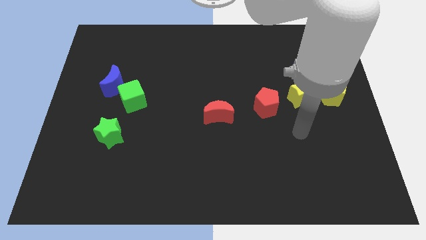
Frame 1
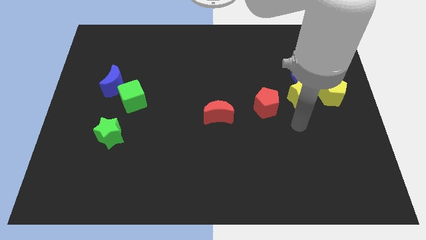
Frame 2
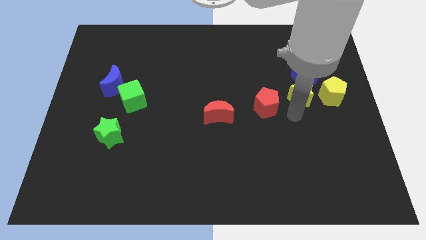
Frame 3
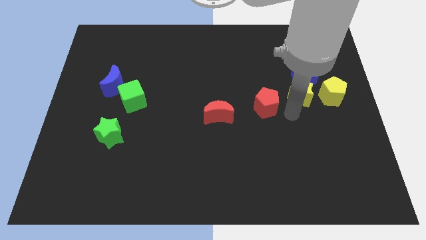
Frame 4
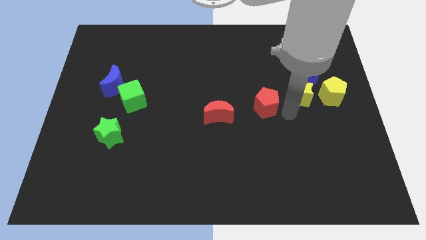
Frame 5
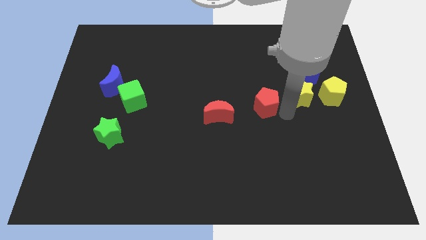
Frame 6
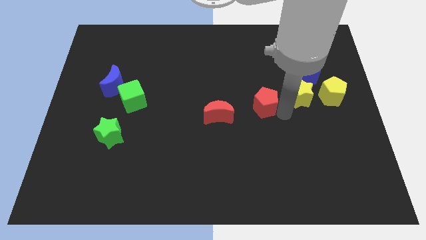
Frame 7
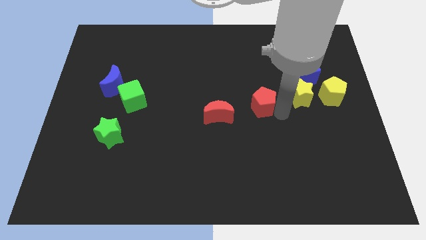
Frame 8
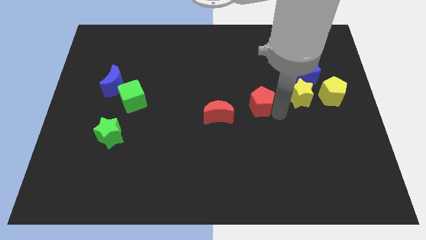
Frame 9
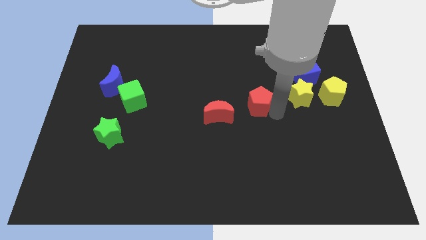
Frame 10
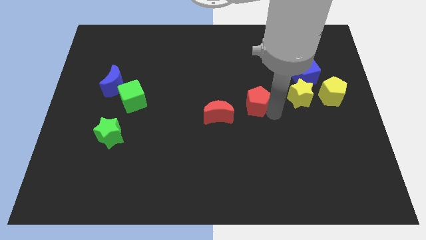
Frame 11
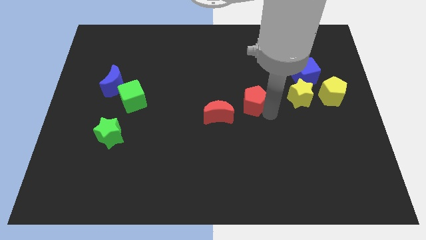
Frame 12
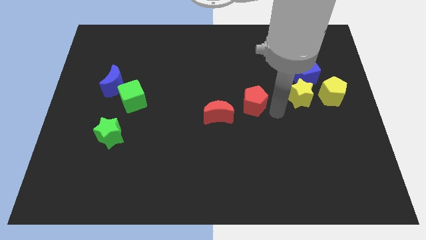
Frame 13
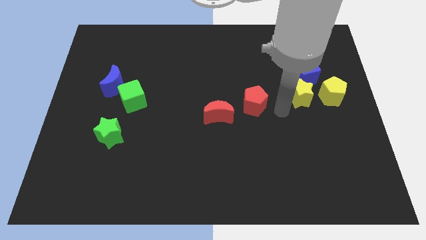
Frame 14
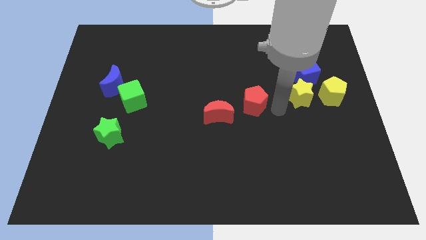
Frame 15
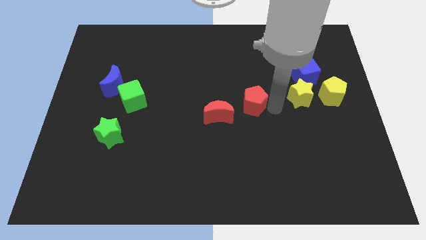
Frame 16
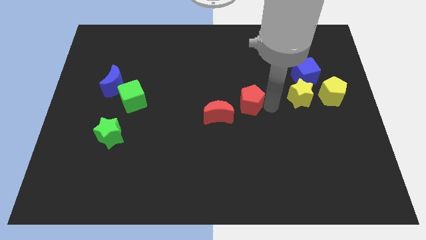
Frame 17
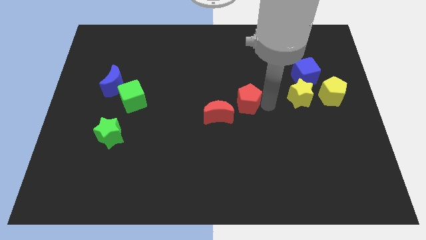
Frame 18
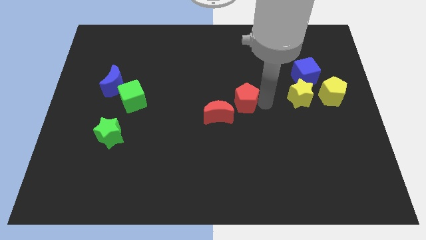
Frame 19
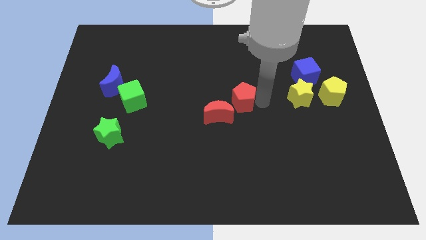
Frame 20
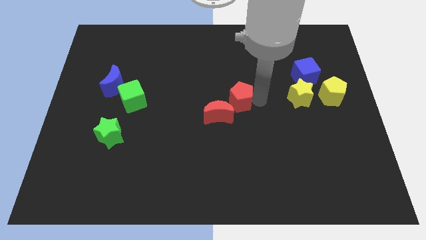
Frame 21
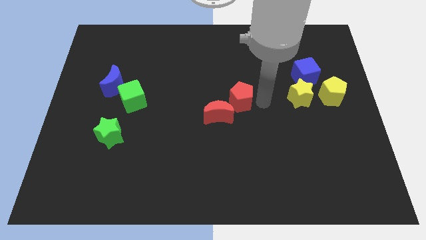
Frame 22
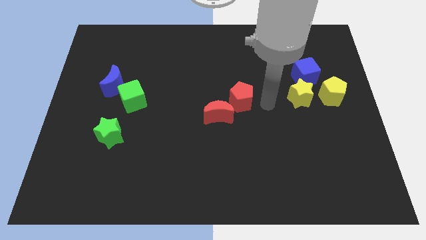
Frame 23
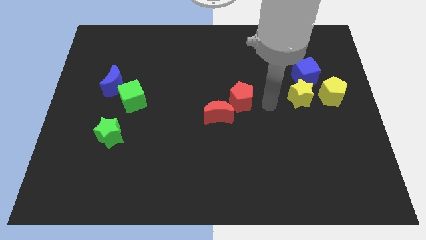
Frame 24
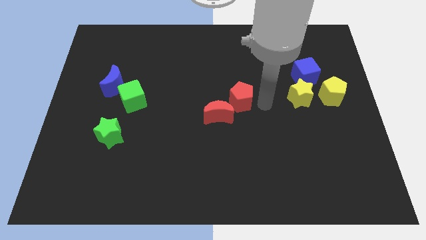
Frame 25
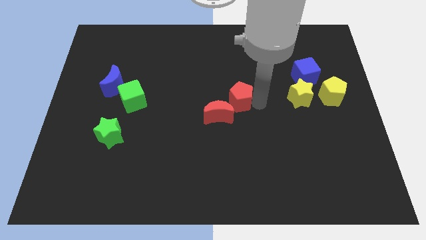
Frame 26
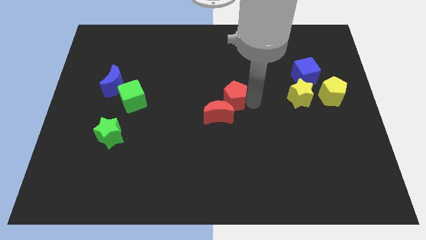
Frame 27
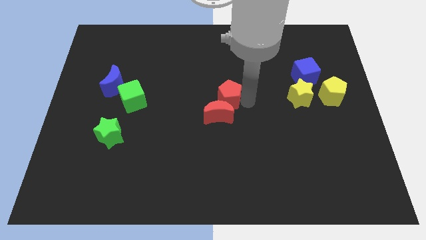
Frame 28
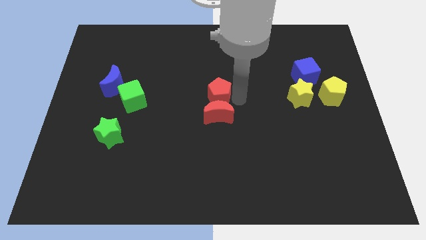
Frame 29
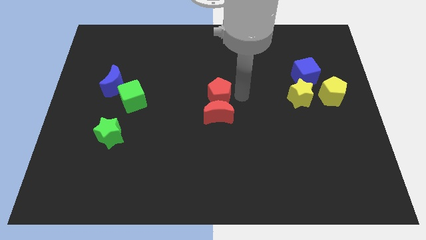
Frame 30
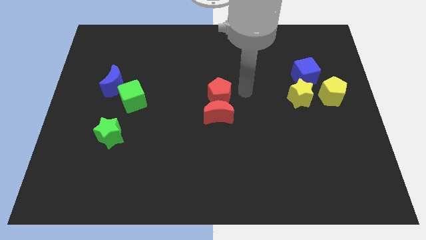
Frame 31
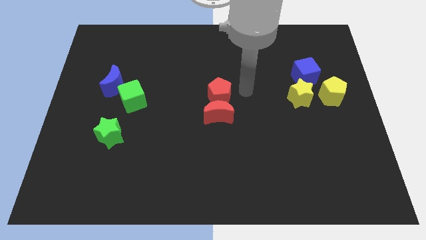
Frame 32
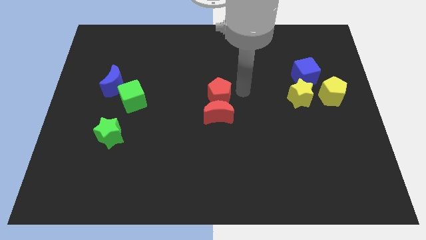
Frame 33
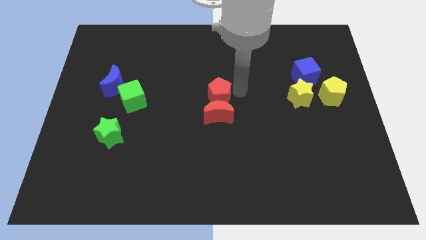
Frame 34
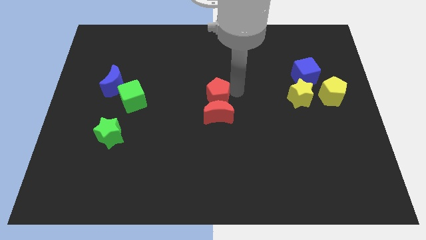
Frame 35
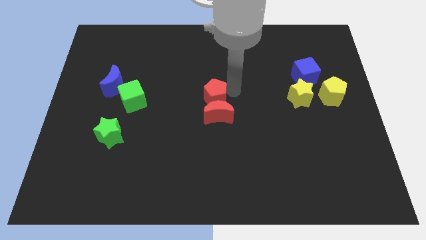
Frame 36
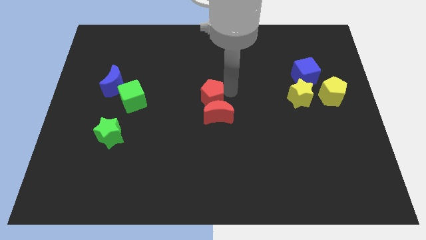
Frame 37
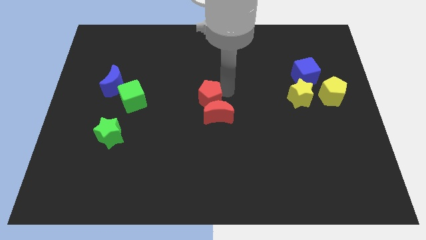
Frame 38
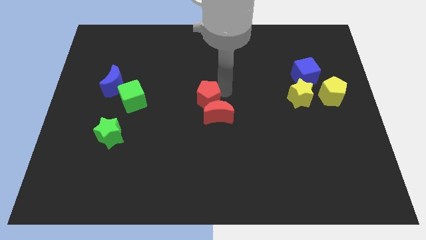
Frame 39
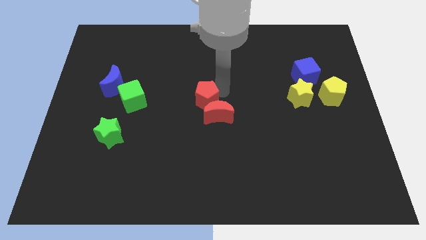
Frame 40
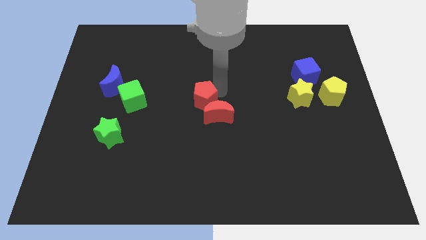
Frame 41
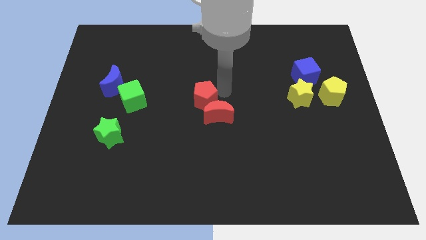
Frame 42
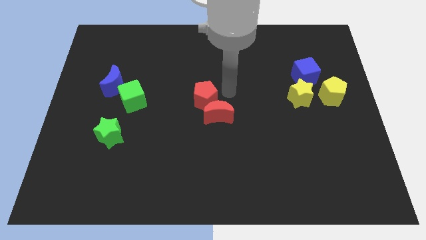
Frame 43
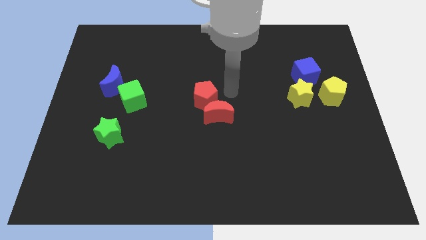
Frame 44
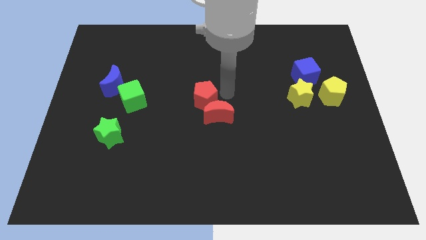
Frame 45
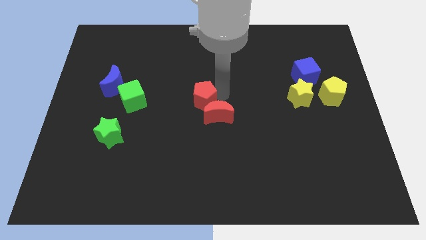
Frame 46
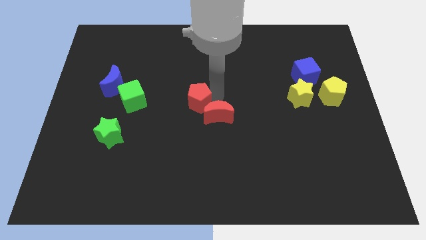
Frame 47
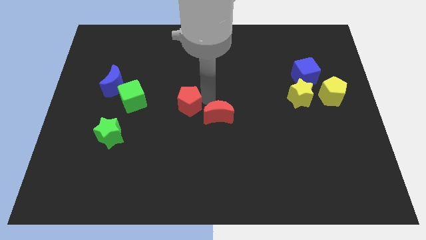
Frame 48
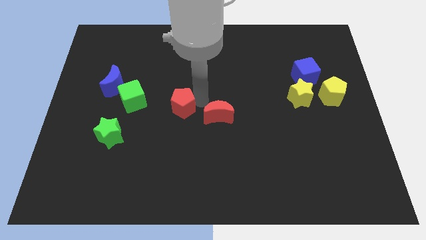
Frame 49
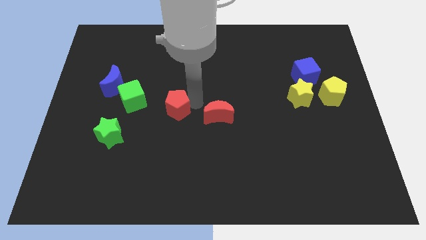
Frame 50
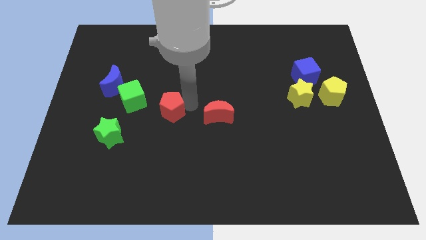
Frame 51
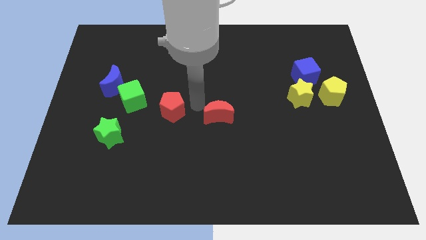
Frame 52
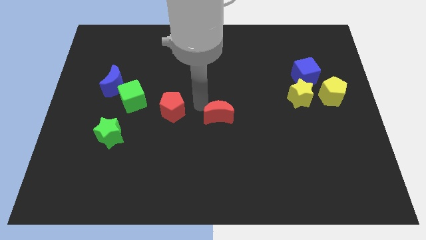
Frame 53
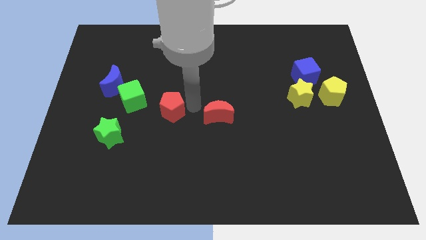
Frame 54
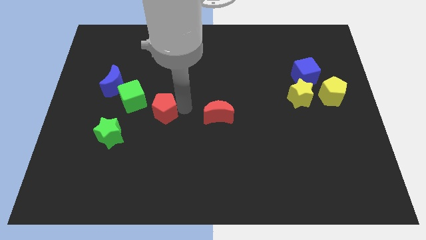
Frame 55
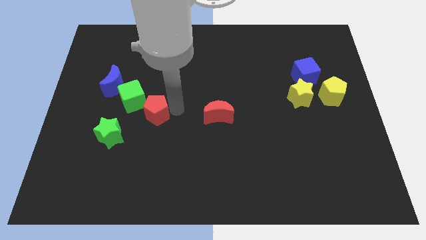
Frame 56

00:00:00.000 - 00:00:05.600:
move the red pentagon to the top right of the green star

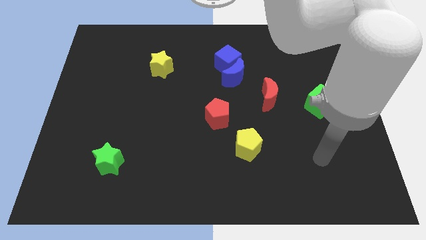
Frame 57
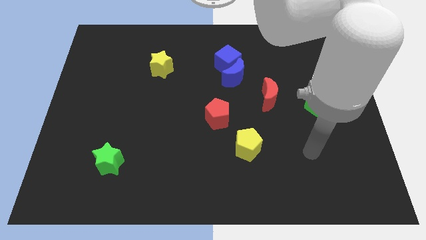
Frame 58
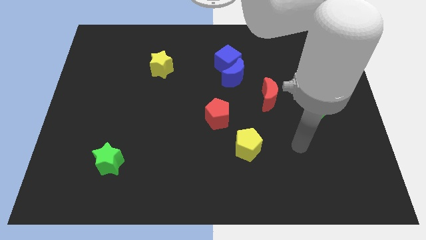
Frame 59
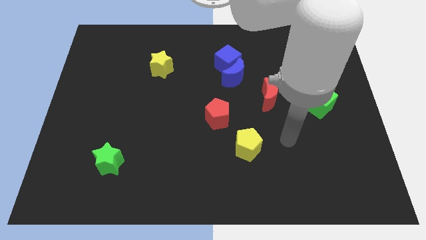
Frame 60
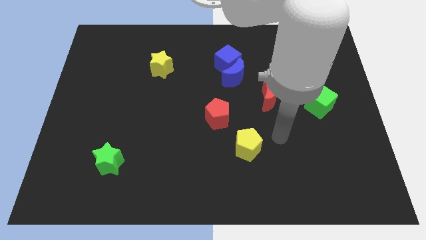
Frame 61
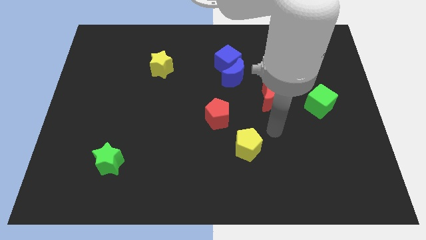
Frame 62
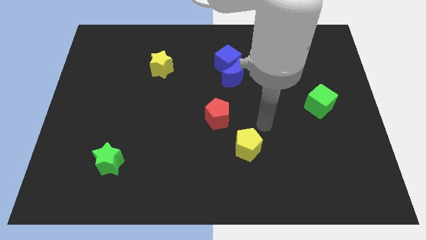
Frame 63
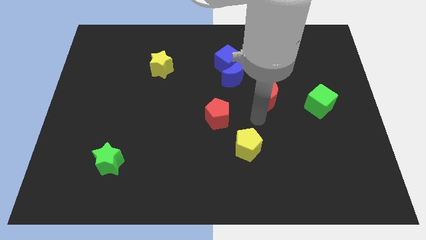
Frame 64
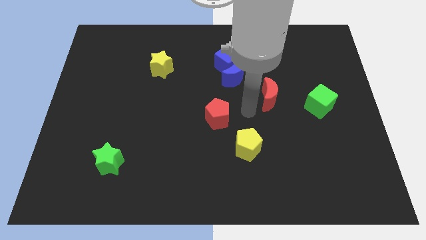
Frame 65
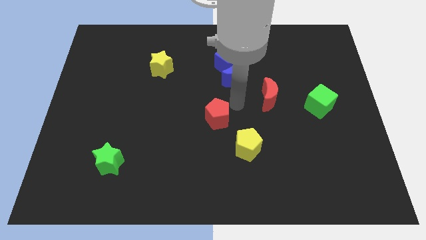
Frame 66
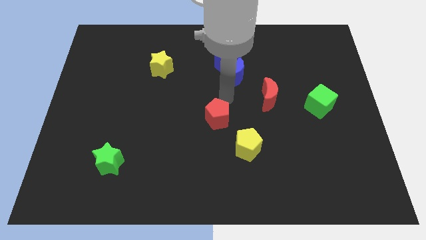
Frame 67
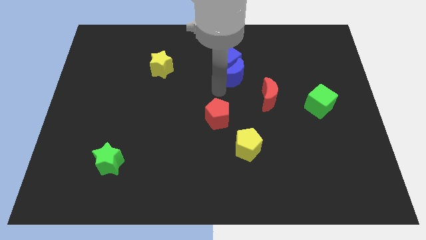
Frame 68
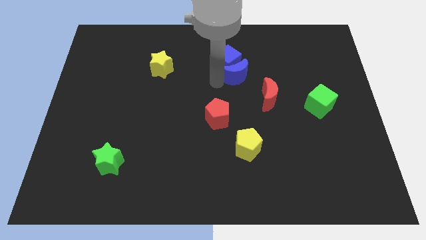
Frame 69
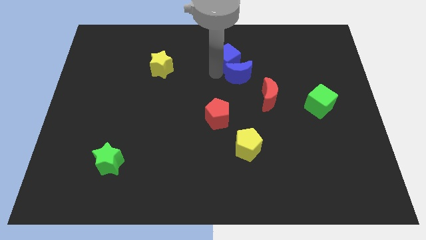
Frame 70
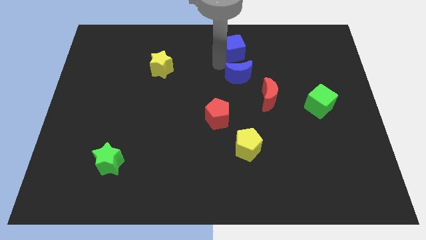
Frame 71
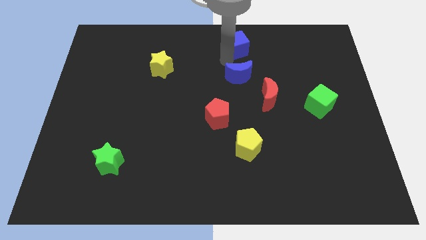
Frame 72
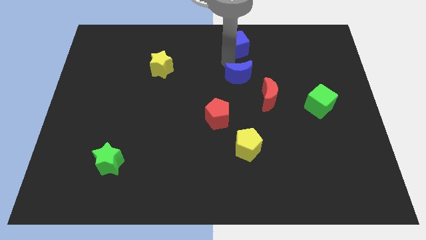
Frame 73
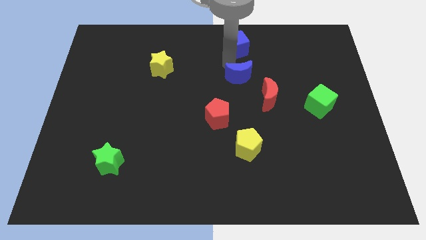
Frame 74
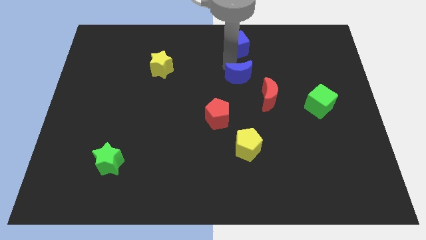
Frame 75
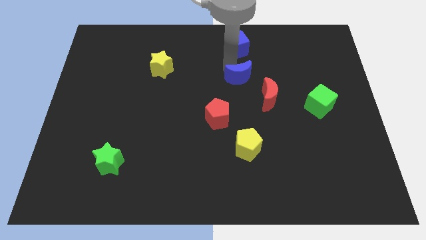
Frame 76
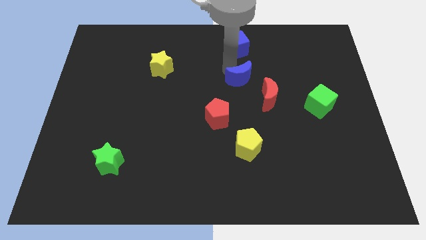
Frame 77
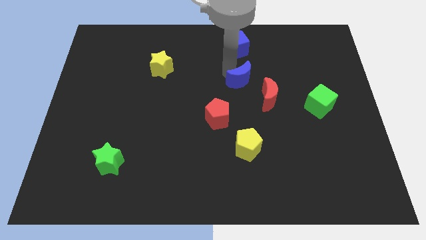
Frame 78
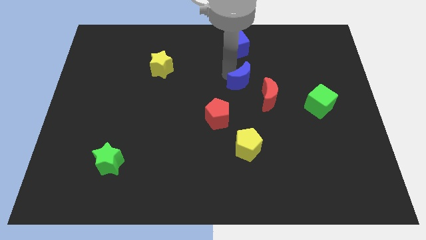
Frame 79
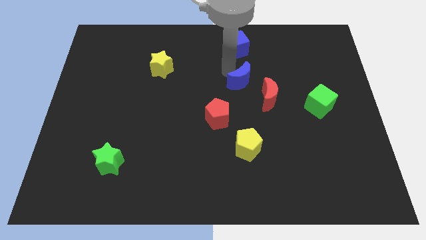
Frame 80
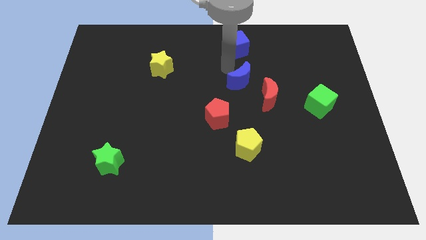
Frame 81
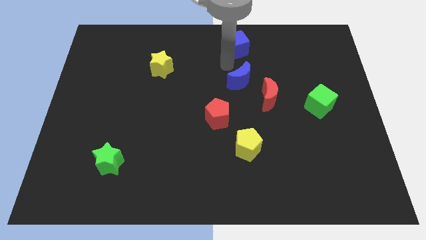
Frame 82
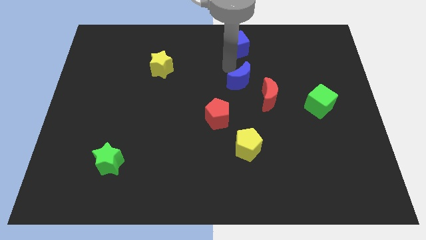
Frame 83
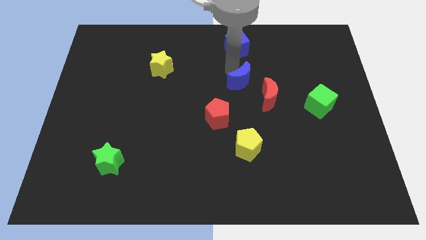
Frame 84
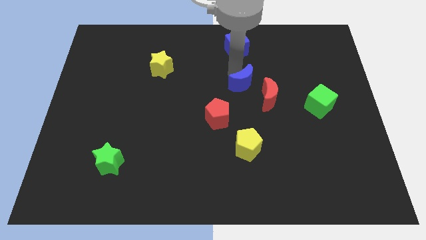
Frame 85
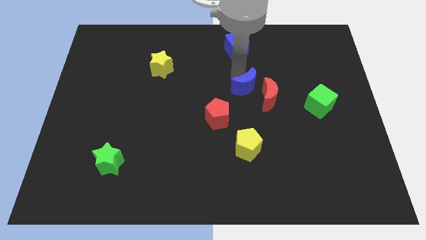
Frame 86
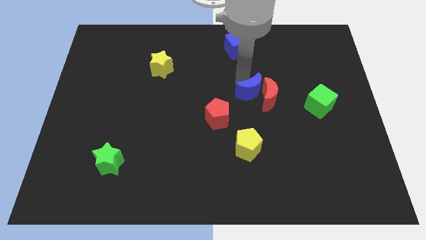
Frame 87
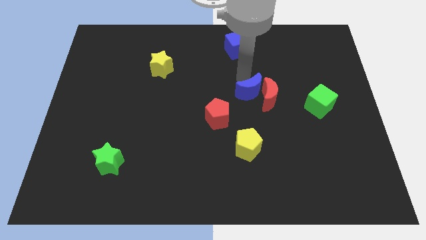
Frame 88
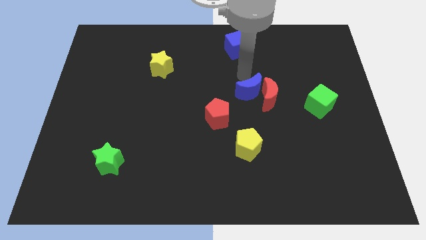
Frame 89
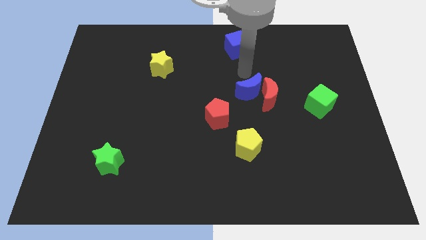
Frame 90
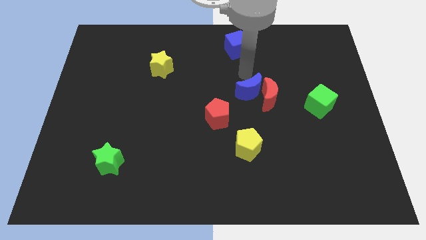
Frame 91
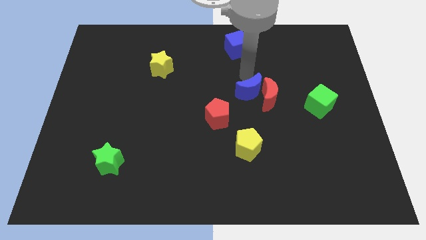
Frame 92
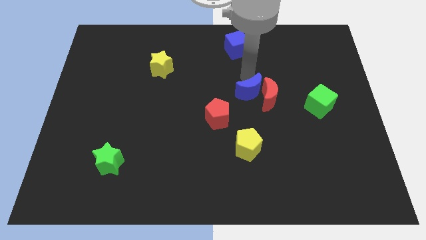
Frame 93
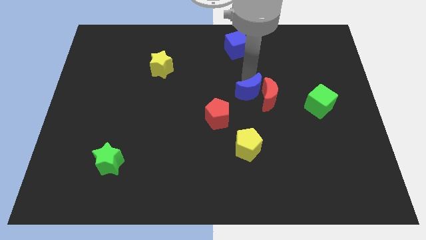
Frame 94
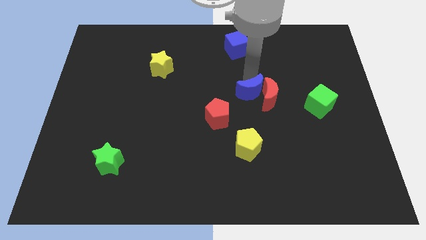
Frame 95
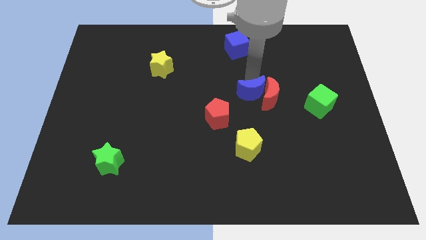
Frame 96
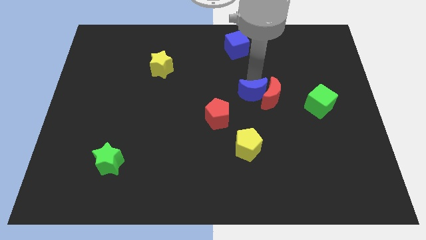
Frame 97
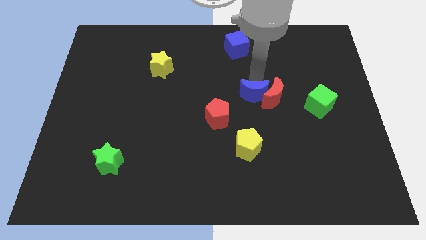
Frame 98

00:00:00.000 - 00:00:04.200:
push the blue moon left of the green cube
